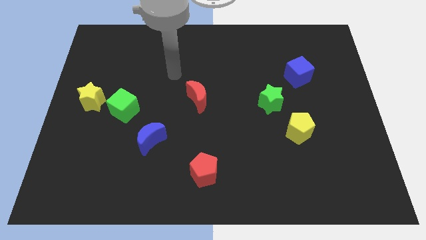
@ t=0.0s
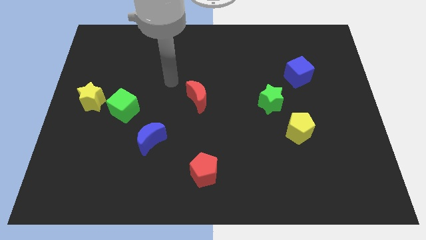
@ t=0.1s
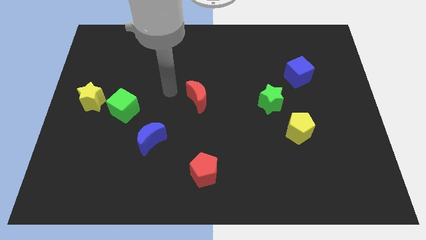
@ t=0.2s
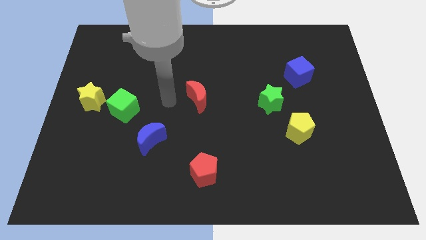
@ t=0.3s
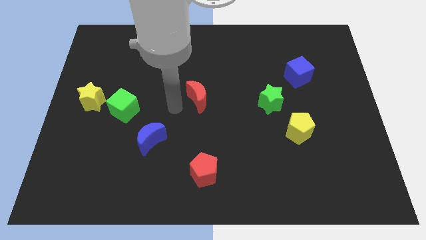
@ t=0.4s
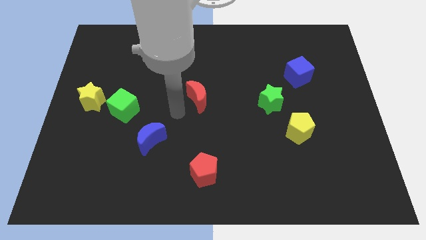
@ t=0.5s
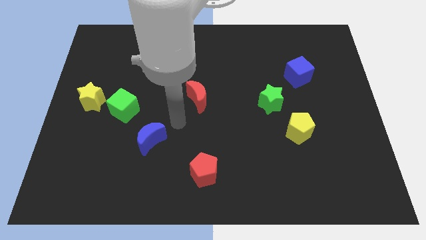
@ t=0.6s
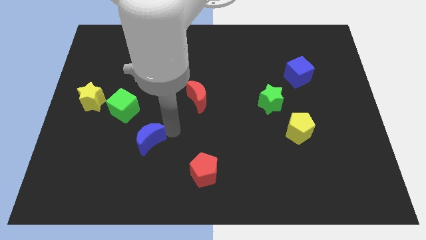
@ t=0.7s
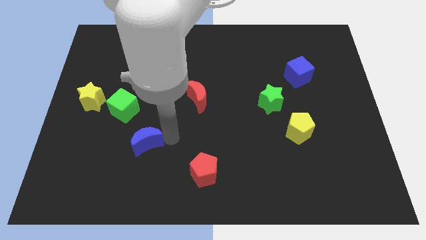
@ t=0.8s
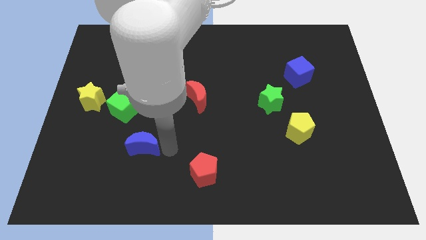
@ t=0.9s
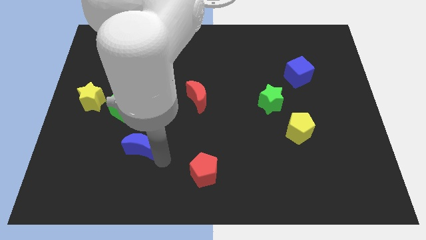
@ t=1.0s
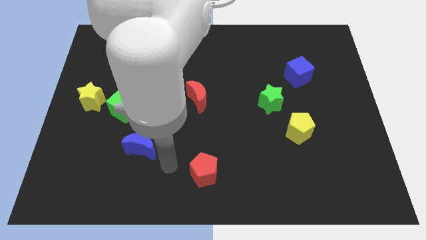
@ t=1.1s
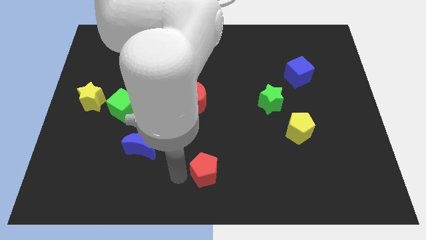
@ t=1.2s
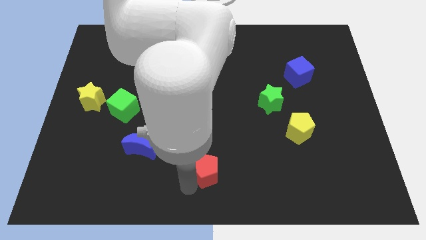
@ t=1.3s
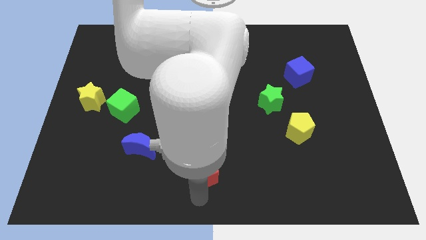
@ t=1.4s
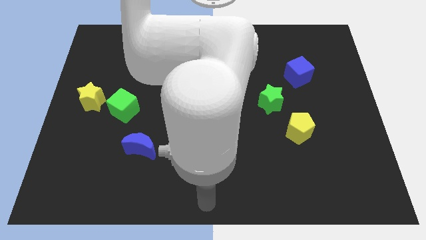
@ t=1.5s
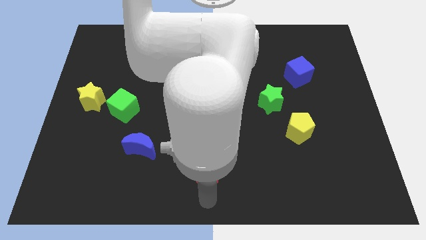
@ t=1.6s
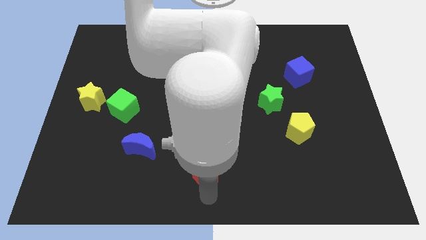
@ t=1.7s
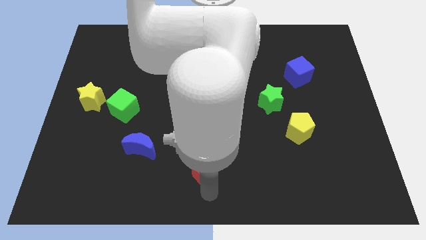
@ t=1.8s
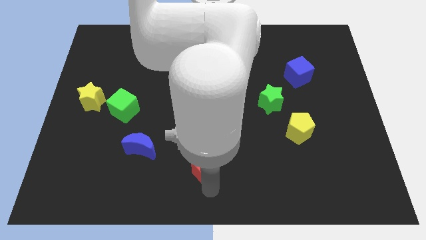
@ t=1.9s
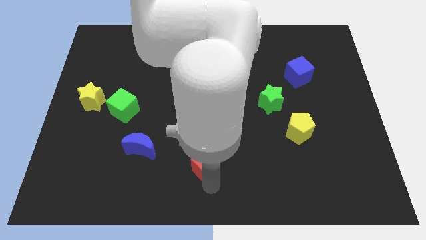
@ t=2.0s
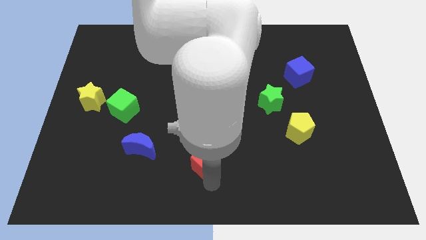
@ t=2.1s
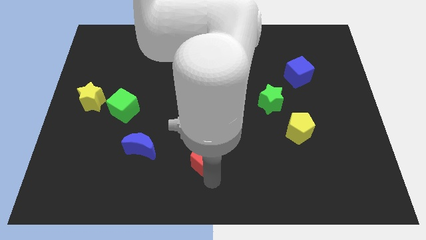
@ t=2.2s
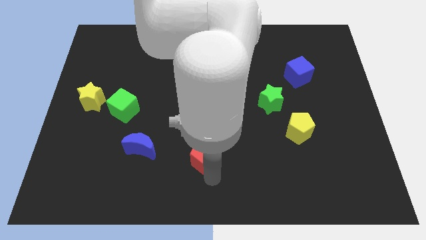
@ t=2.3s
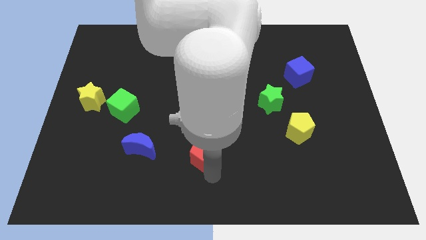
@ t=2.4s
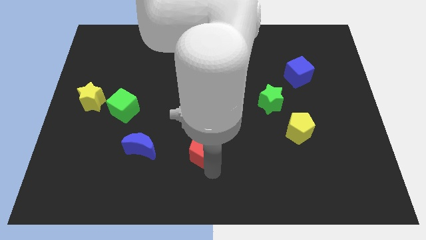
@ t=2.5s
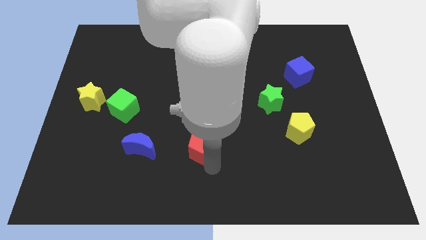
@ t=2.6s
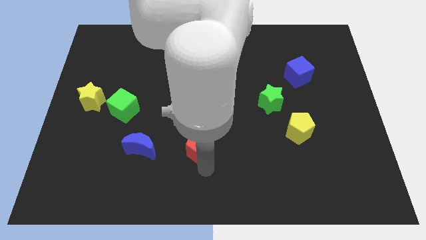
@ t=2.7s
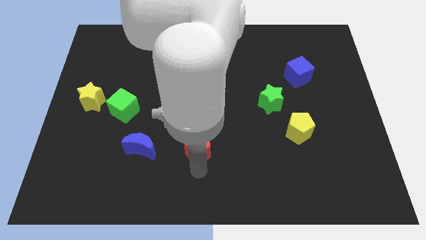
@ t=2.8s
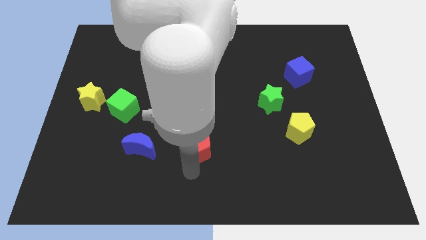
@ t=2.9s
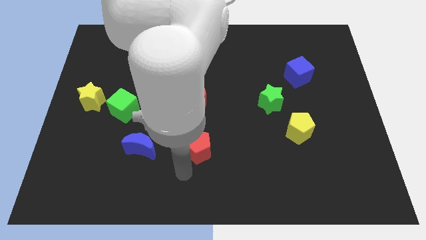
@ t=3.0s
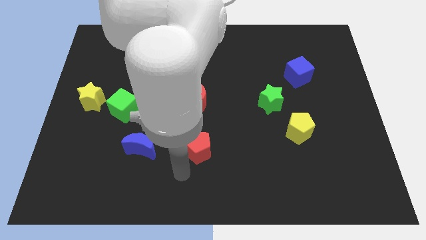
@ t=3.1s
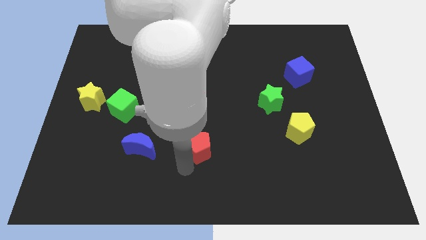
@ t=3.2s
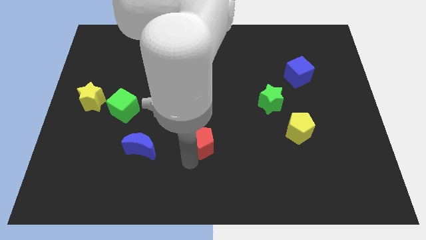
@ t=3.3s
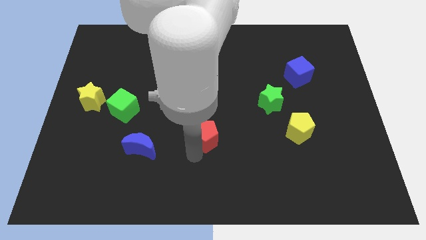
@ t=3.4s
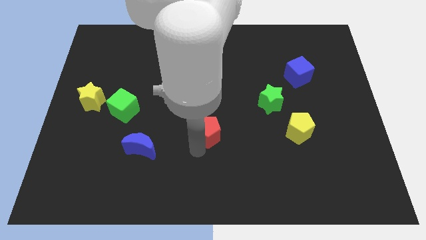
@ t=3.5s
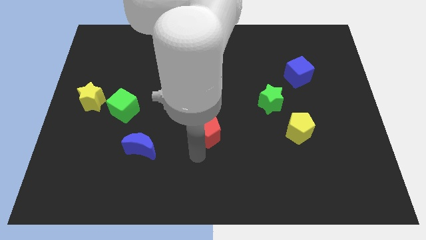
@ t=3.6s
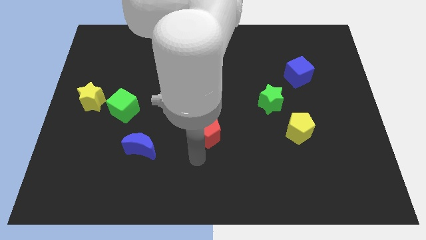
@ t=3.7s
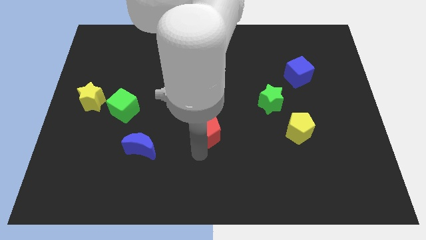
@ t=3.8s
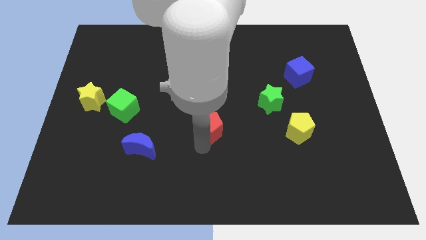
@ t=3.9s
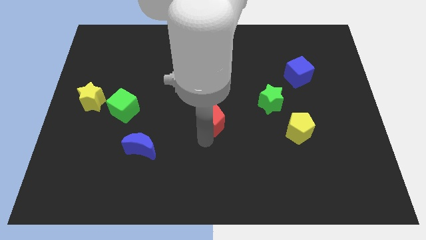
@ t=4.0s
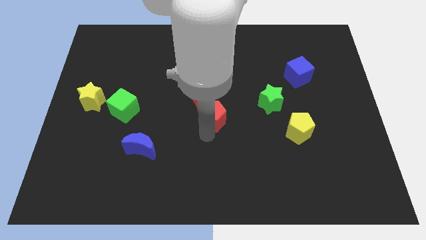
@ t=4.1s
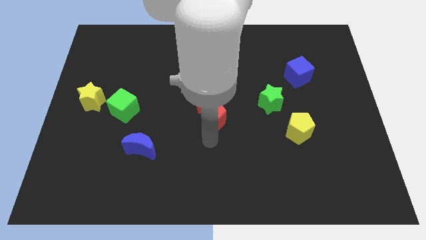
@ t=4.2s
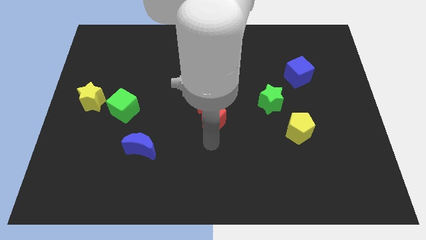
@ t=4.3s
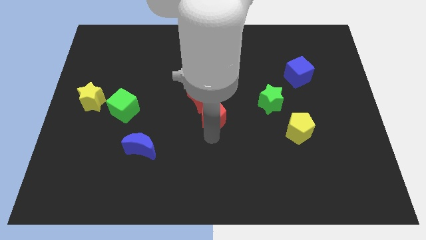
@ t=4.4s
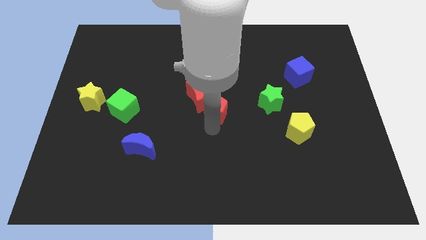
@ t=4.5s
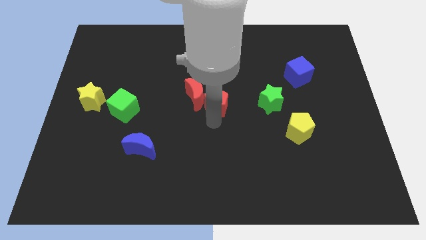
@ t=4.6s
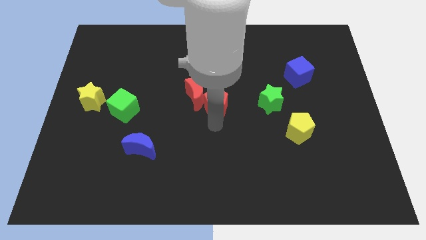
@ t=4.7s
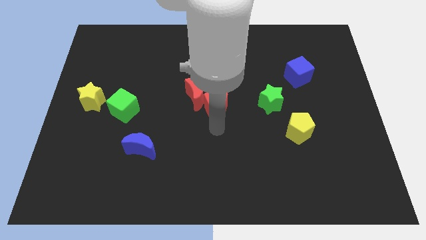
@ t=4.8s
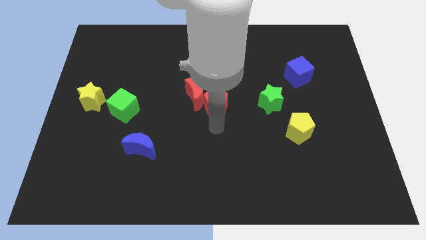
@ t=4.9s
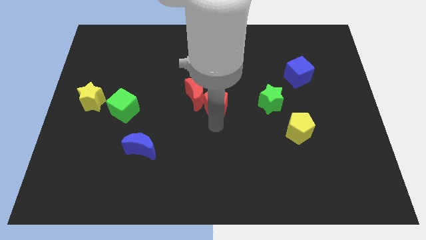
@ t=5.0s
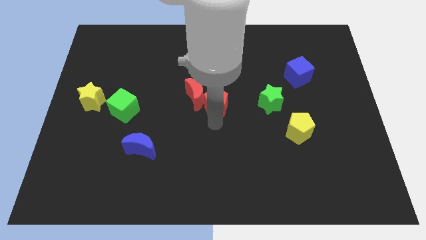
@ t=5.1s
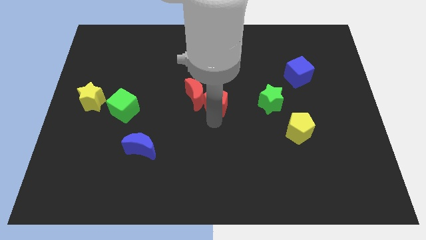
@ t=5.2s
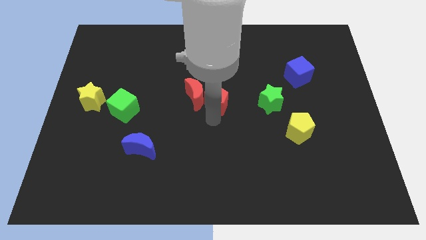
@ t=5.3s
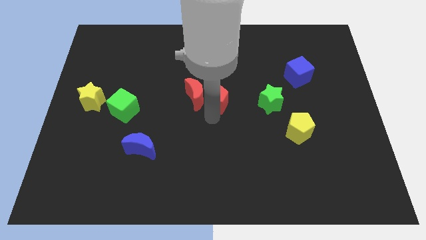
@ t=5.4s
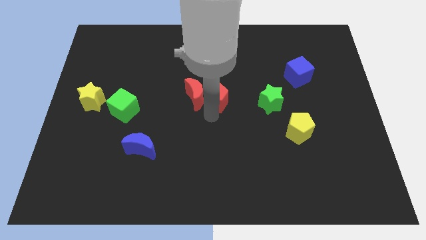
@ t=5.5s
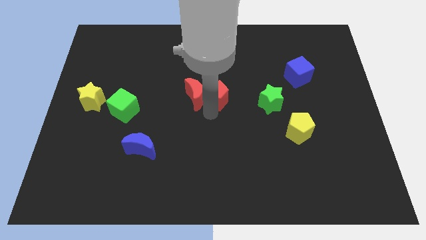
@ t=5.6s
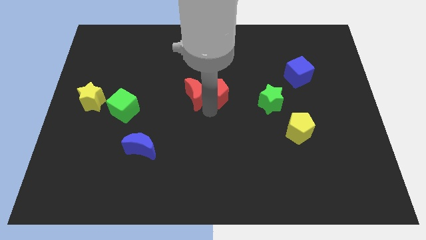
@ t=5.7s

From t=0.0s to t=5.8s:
slide the red pentagon upwards

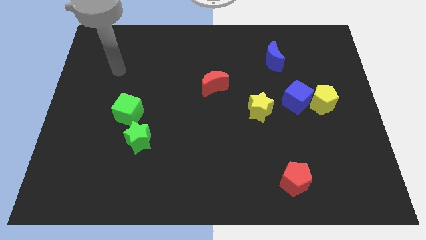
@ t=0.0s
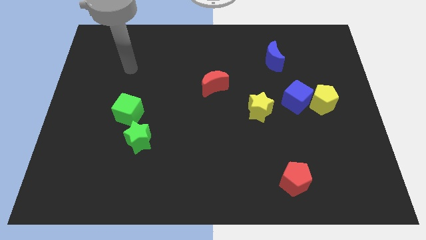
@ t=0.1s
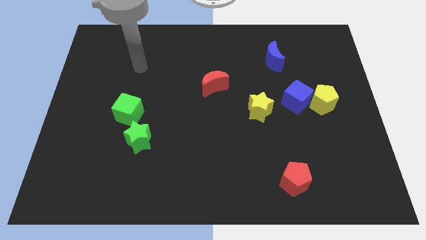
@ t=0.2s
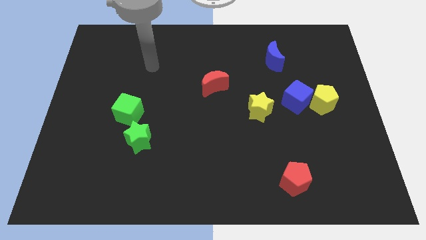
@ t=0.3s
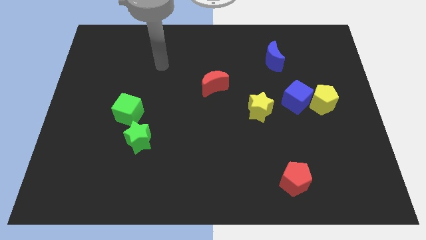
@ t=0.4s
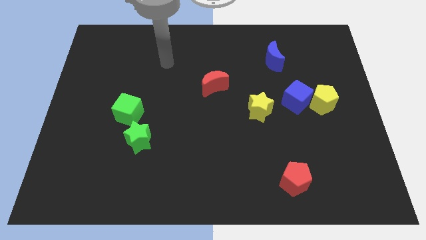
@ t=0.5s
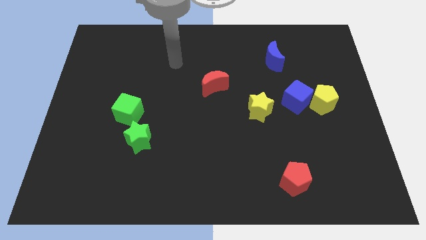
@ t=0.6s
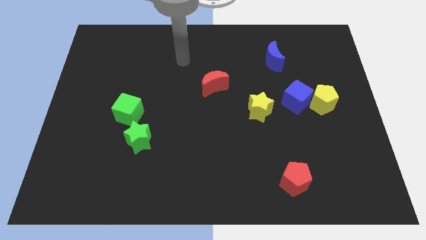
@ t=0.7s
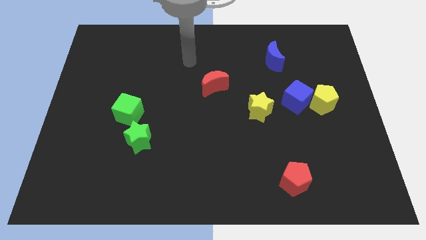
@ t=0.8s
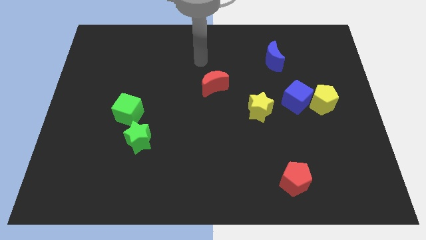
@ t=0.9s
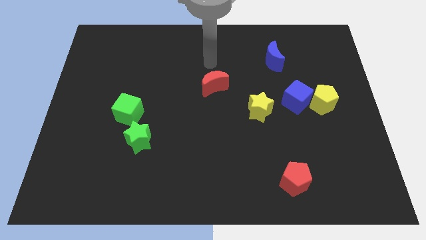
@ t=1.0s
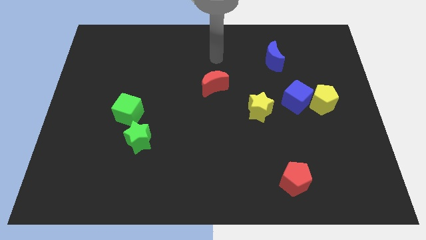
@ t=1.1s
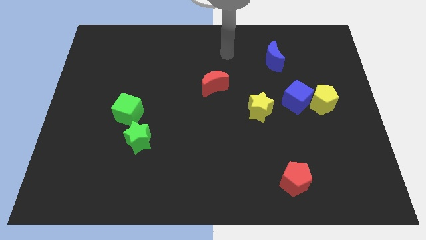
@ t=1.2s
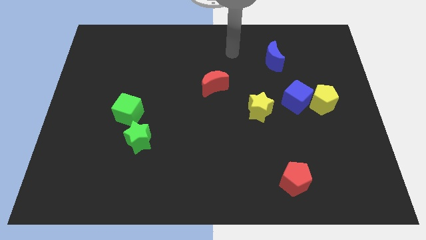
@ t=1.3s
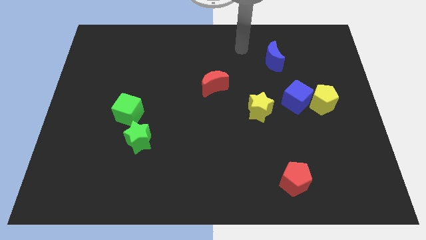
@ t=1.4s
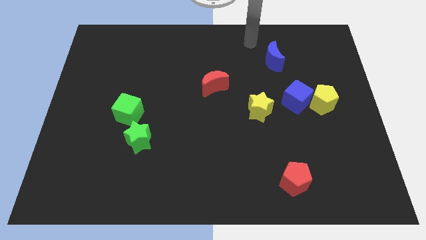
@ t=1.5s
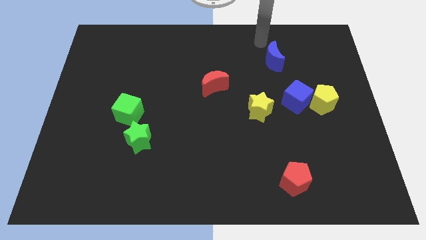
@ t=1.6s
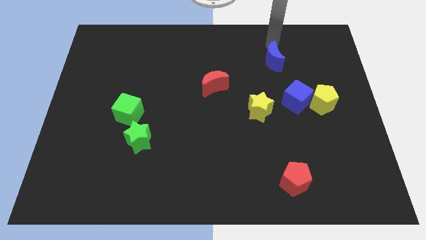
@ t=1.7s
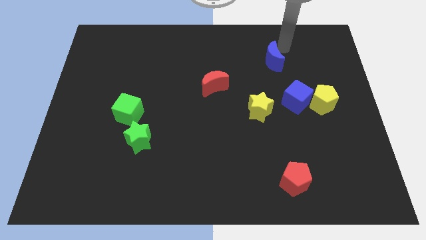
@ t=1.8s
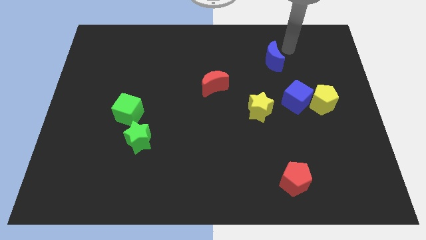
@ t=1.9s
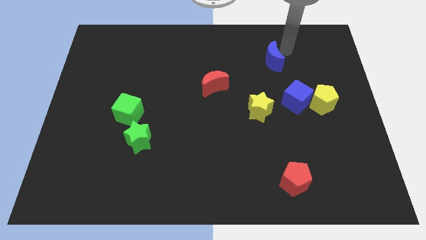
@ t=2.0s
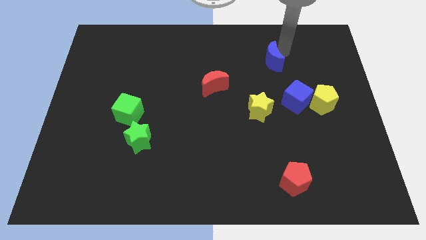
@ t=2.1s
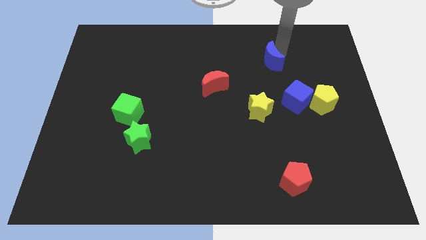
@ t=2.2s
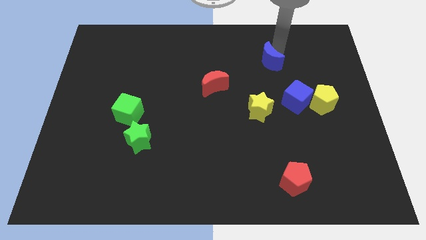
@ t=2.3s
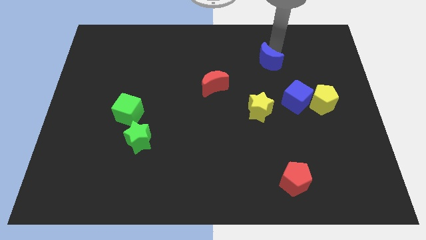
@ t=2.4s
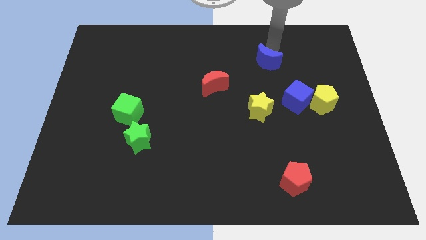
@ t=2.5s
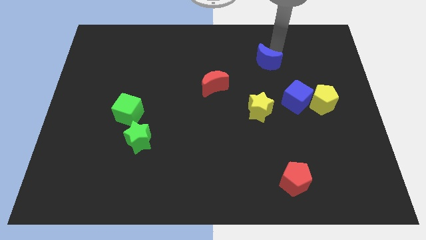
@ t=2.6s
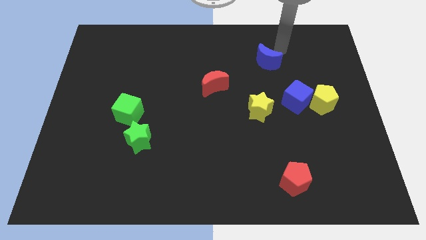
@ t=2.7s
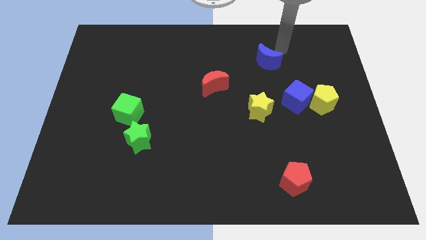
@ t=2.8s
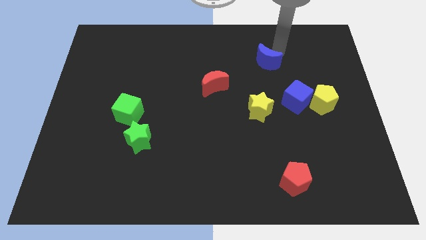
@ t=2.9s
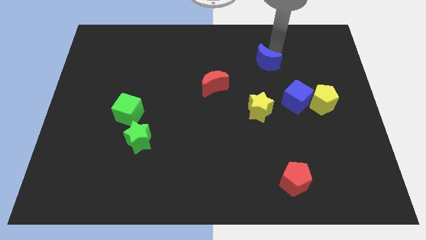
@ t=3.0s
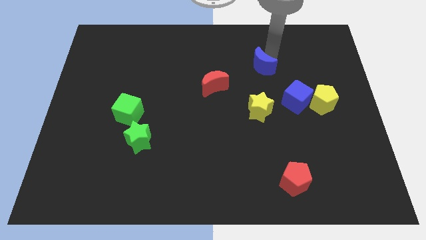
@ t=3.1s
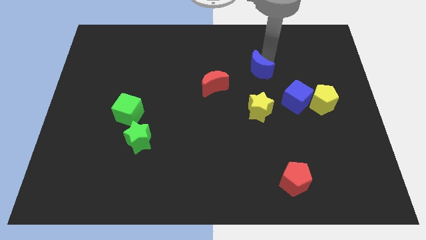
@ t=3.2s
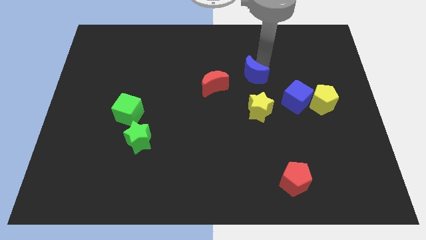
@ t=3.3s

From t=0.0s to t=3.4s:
move the blue moon diagonally down and to the left a little bit
